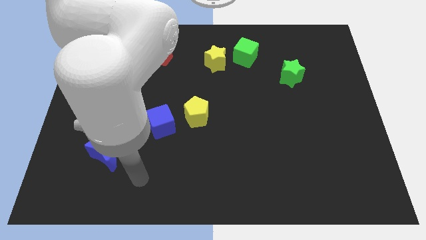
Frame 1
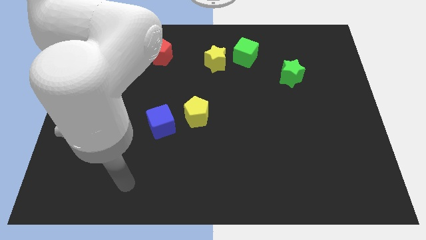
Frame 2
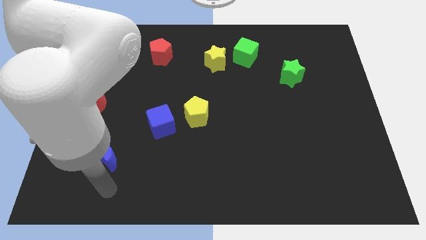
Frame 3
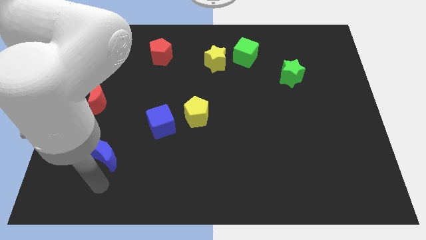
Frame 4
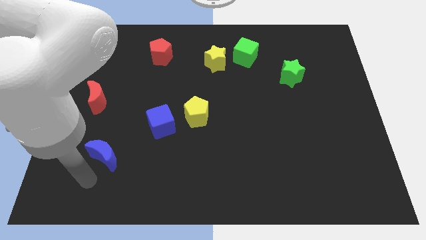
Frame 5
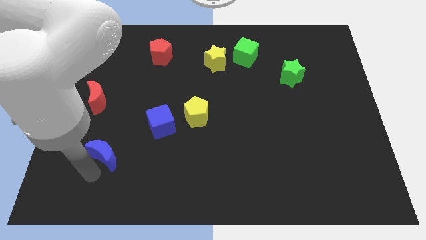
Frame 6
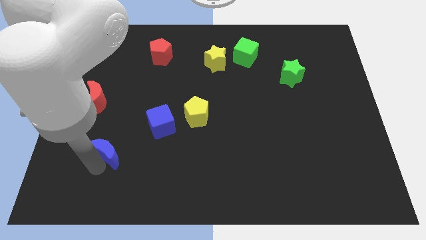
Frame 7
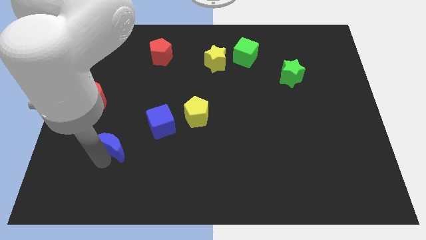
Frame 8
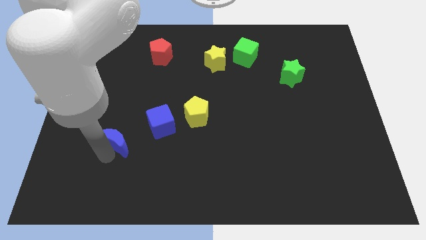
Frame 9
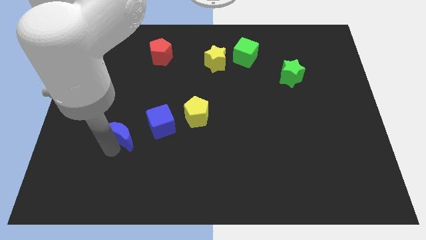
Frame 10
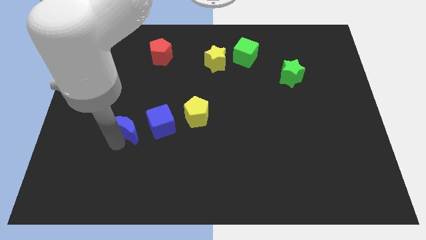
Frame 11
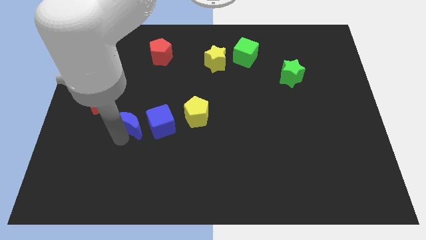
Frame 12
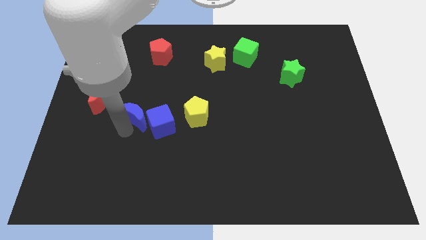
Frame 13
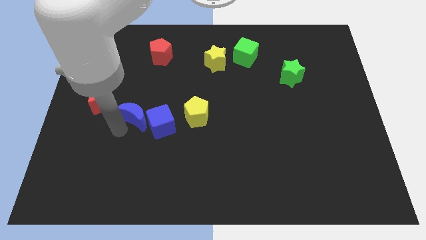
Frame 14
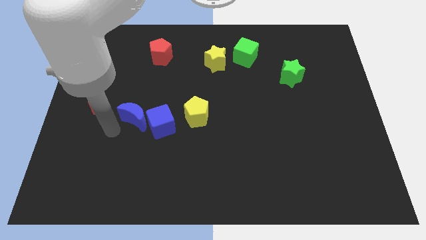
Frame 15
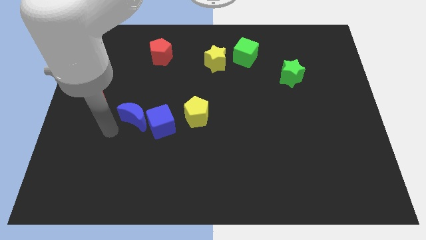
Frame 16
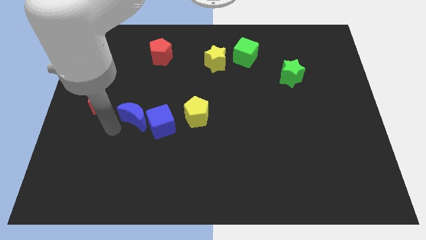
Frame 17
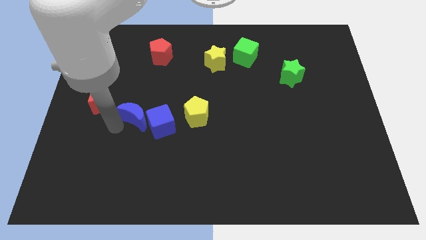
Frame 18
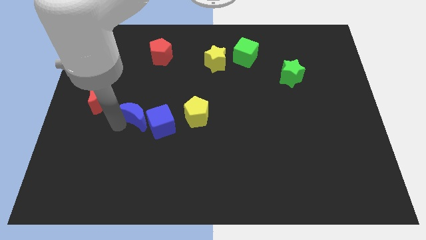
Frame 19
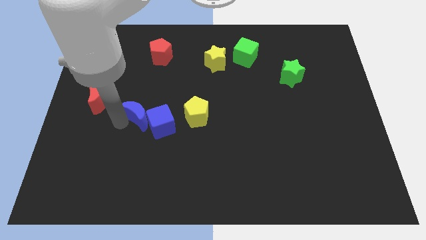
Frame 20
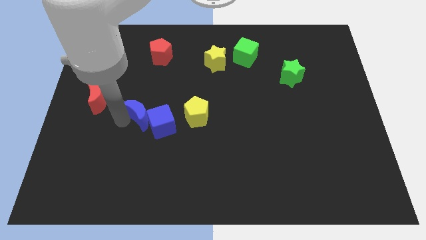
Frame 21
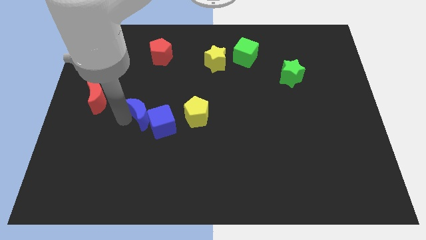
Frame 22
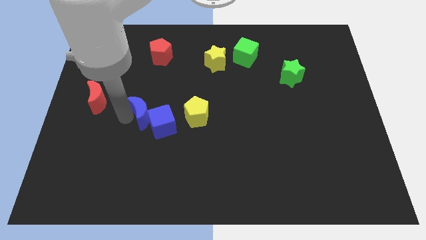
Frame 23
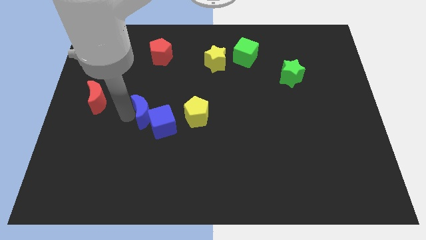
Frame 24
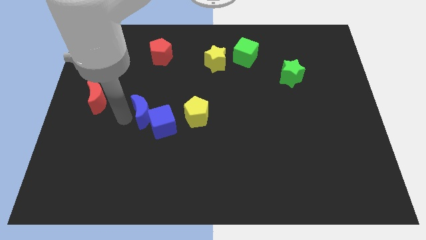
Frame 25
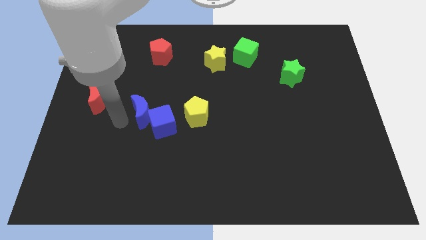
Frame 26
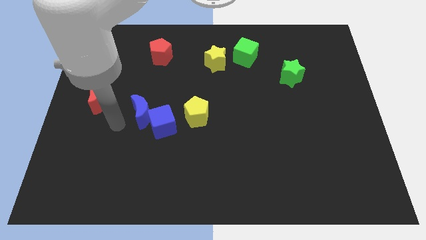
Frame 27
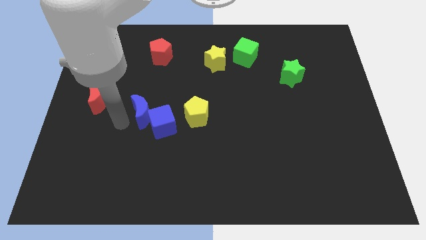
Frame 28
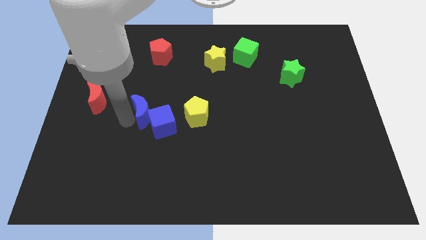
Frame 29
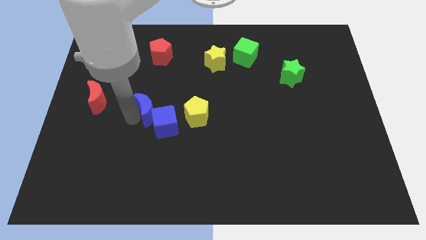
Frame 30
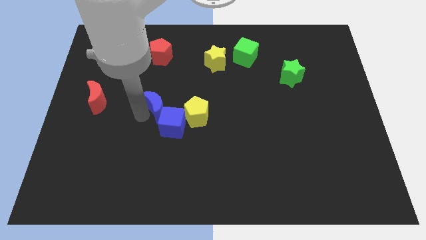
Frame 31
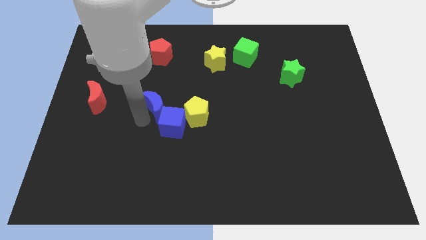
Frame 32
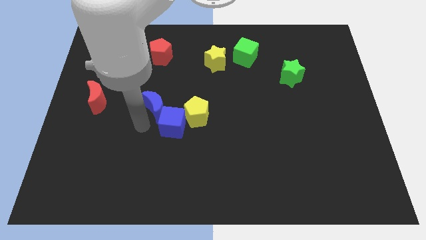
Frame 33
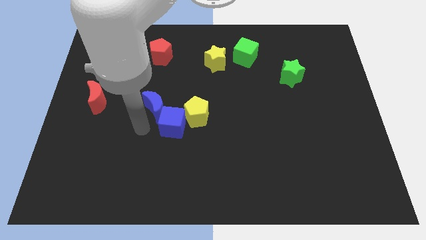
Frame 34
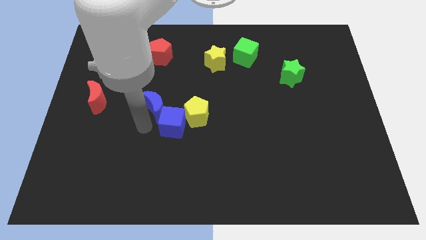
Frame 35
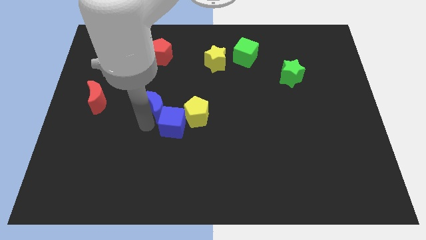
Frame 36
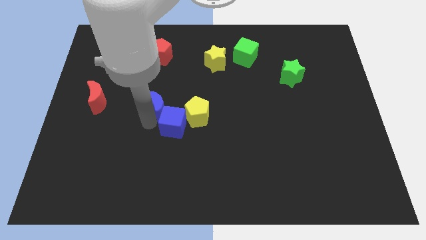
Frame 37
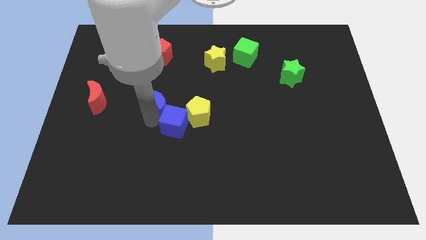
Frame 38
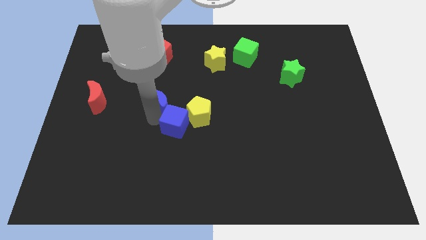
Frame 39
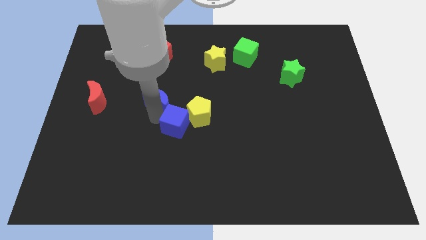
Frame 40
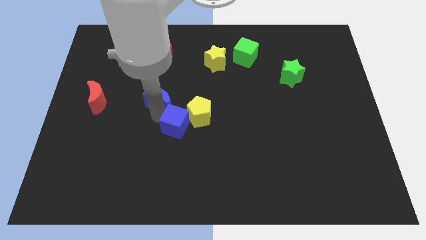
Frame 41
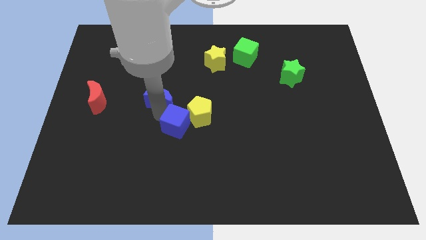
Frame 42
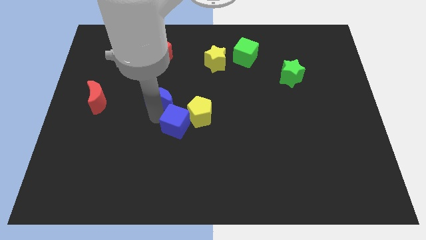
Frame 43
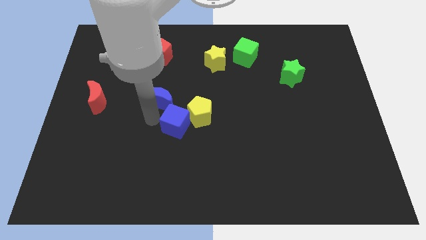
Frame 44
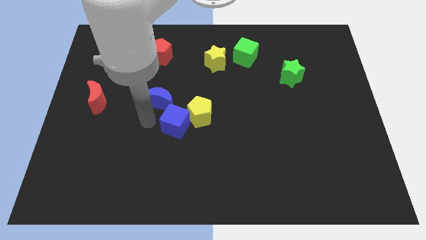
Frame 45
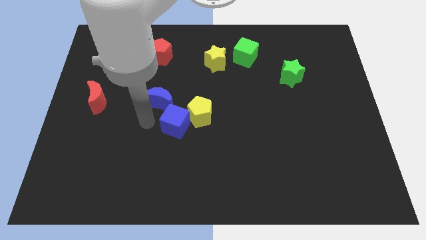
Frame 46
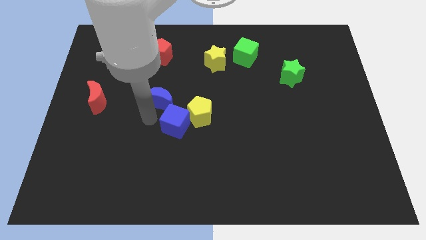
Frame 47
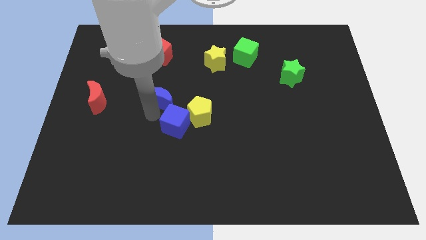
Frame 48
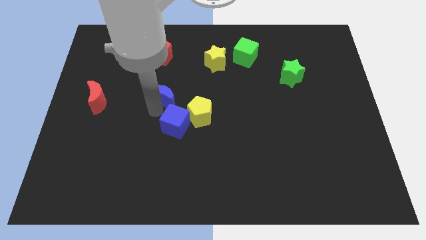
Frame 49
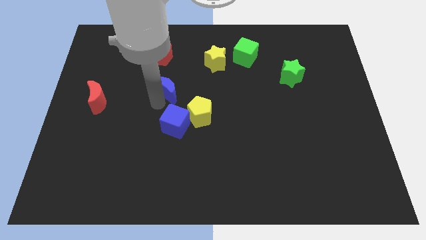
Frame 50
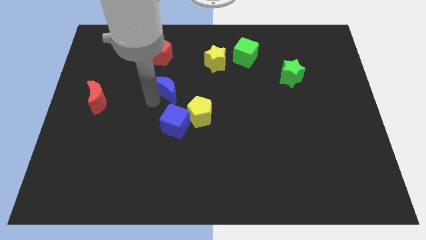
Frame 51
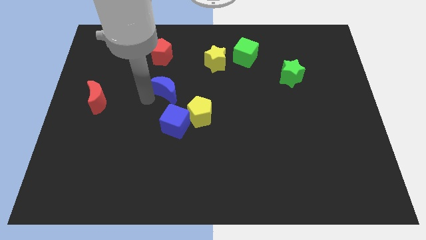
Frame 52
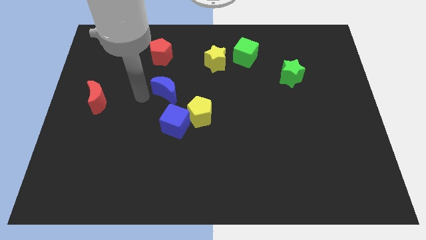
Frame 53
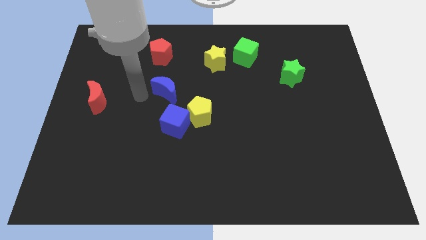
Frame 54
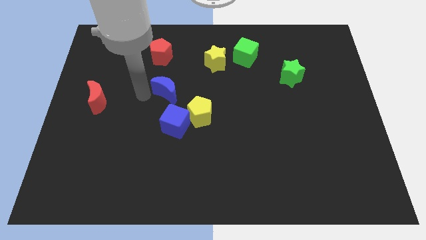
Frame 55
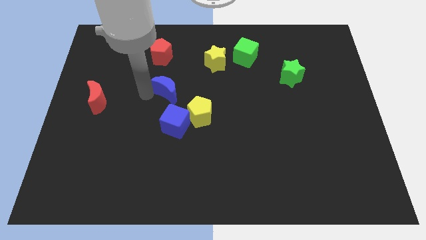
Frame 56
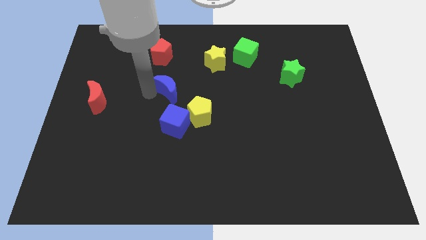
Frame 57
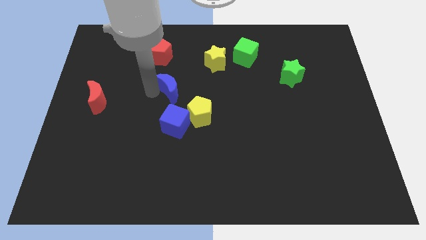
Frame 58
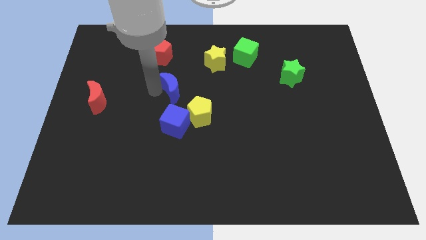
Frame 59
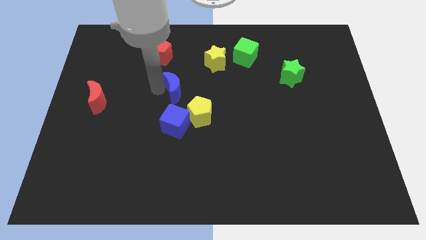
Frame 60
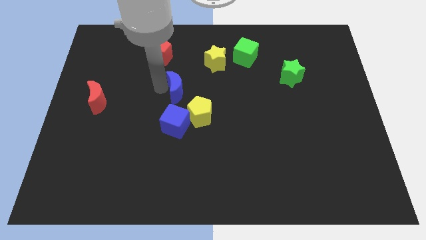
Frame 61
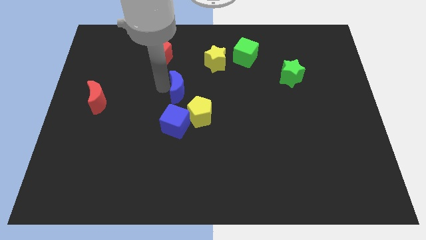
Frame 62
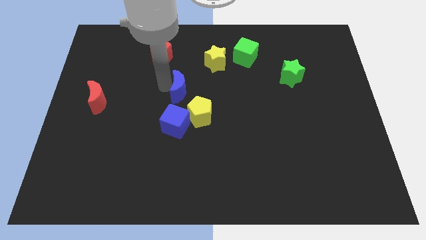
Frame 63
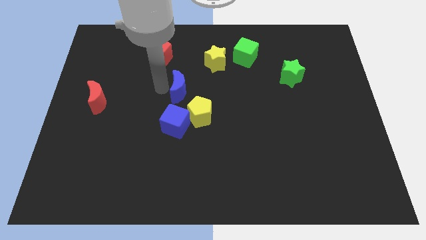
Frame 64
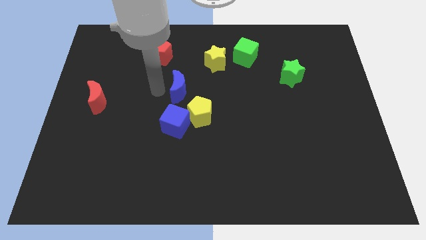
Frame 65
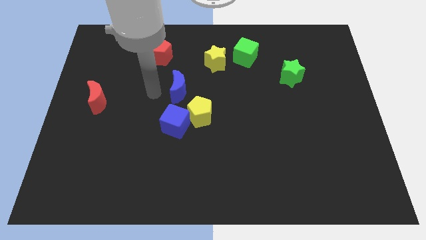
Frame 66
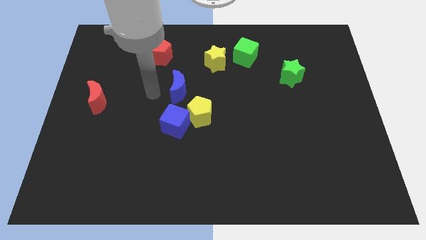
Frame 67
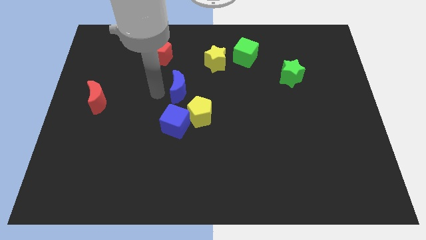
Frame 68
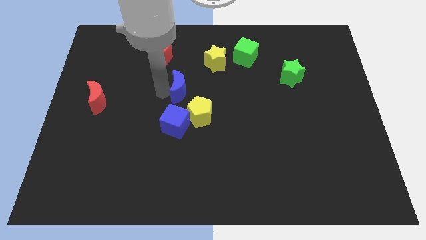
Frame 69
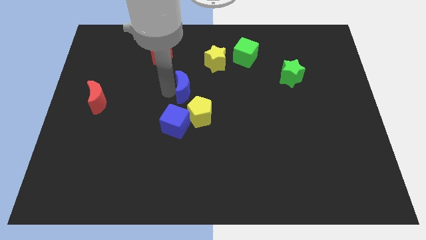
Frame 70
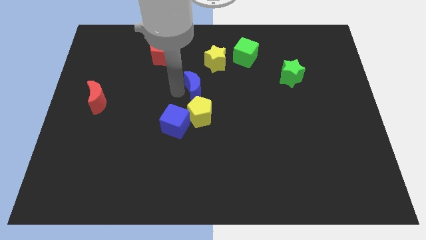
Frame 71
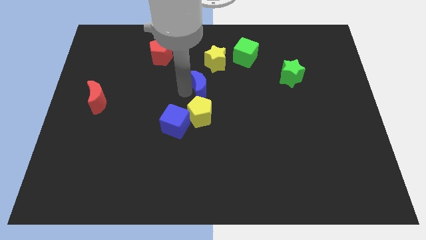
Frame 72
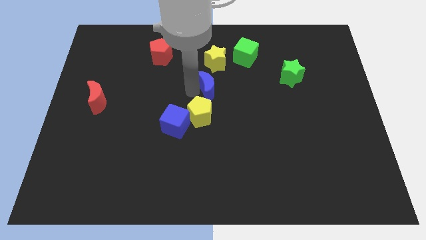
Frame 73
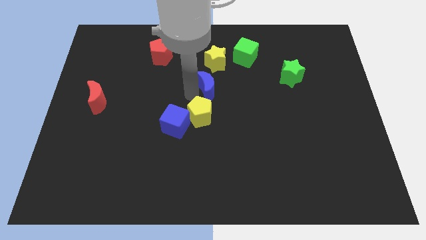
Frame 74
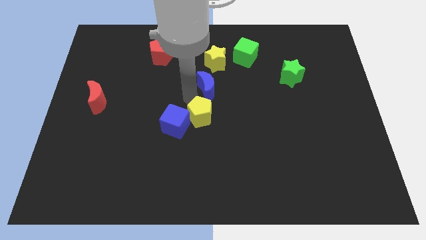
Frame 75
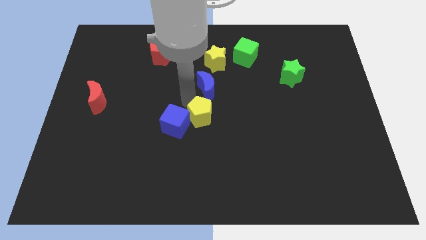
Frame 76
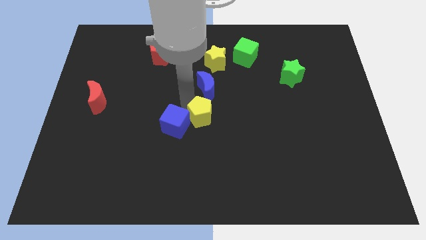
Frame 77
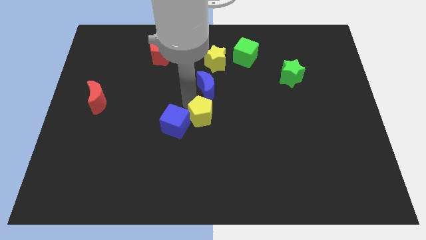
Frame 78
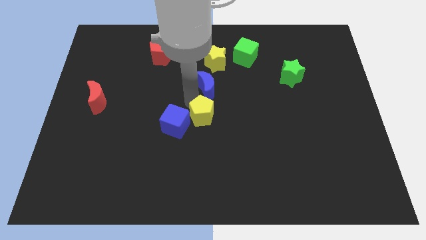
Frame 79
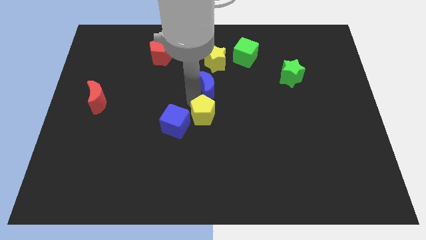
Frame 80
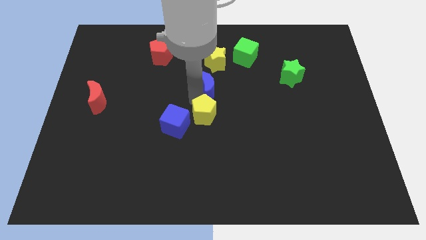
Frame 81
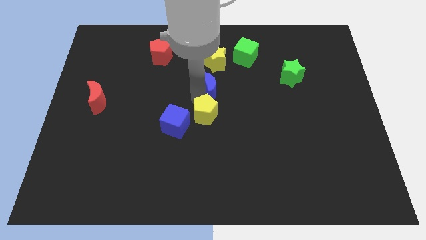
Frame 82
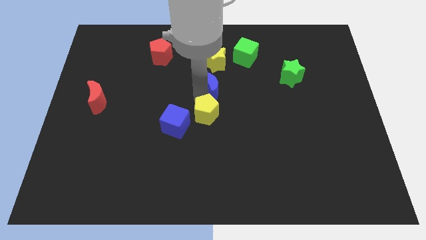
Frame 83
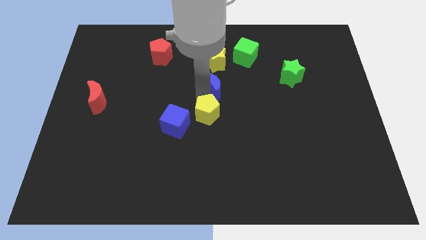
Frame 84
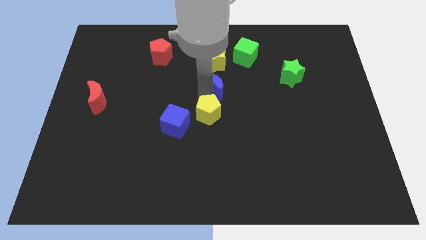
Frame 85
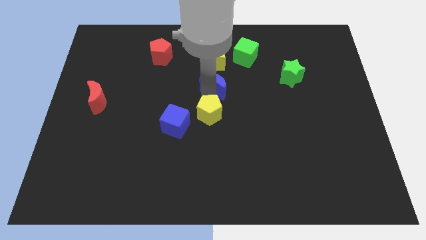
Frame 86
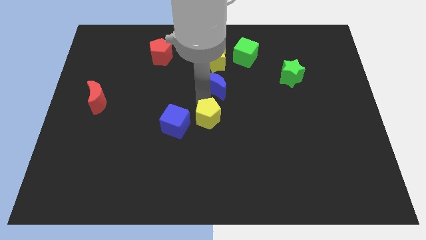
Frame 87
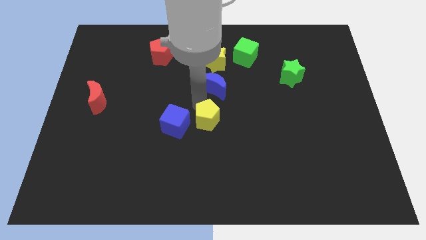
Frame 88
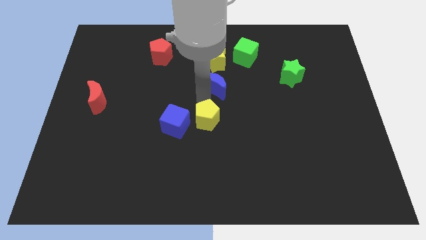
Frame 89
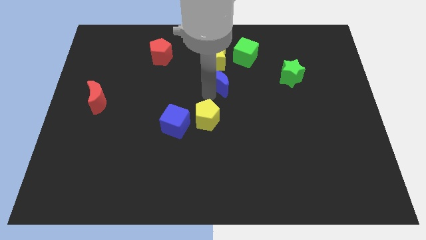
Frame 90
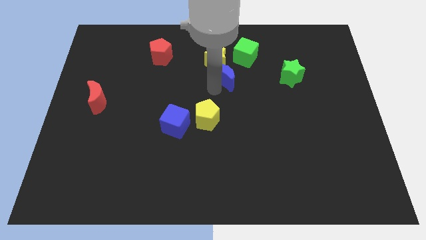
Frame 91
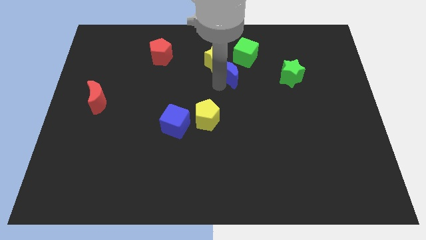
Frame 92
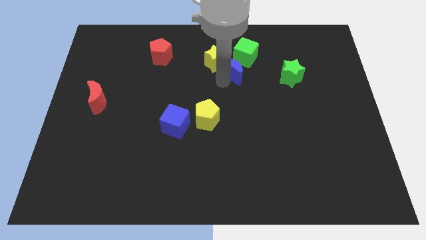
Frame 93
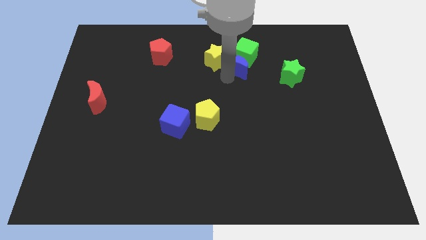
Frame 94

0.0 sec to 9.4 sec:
slide the blue moon towards the green cube
